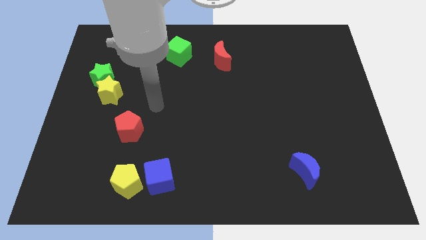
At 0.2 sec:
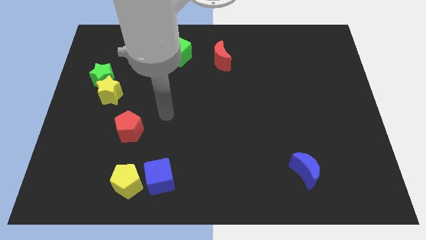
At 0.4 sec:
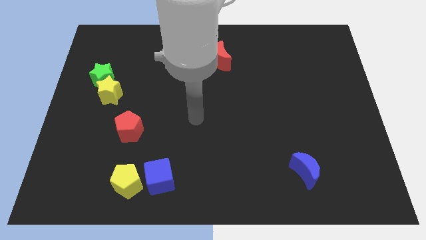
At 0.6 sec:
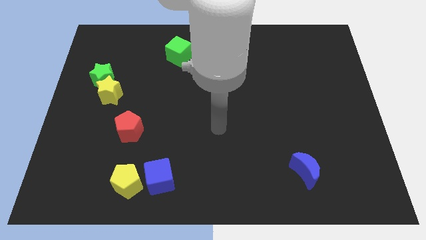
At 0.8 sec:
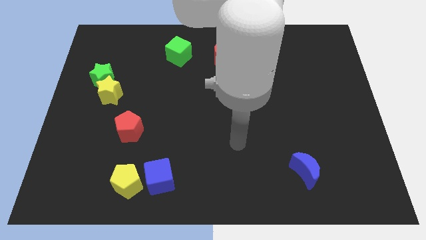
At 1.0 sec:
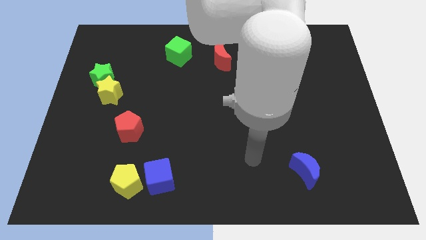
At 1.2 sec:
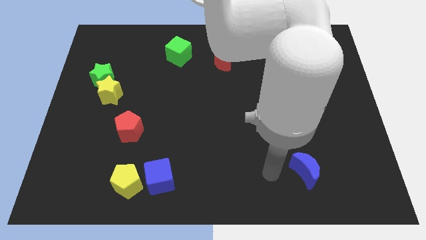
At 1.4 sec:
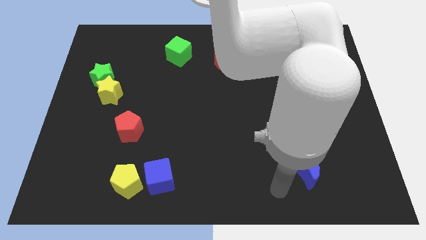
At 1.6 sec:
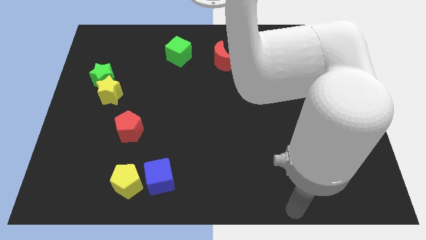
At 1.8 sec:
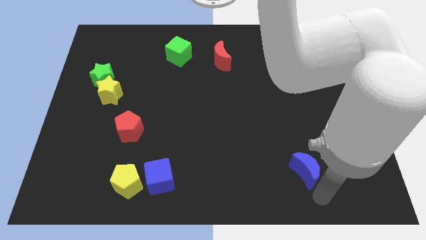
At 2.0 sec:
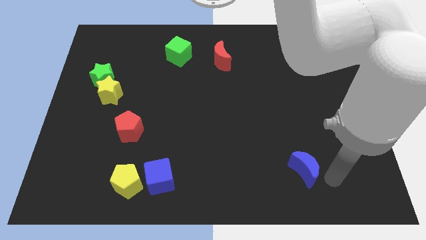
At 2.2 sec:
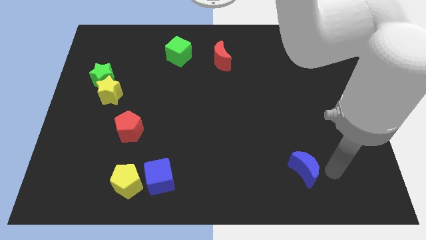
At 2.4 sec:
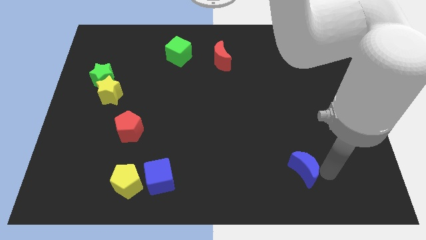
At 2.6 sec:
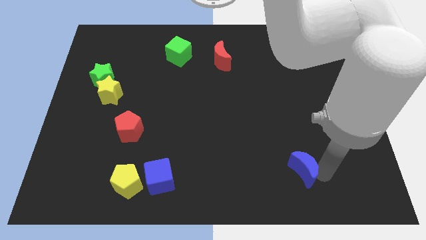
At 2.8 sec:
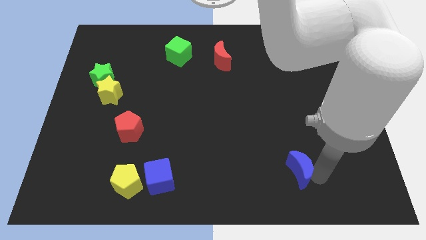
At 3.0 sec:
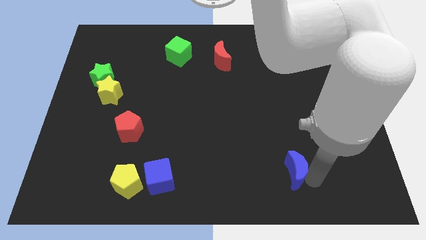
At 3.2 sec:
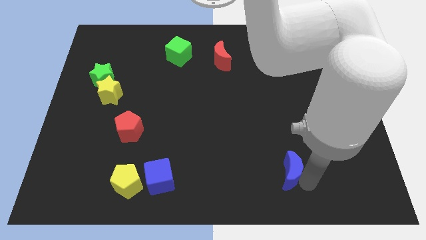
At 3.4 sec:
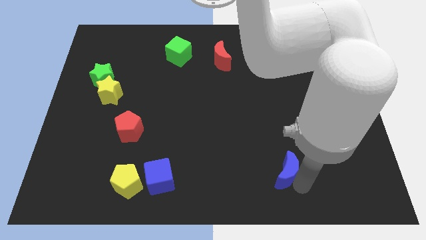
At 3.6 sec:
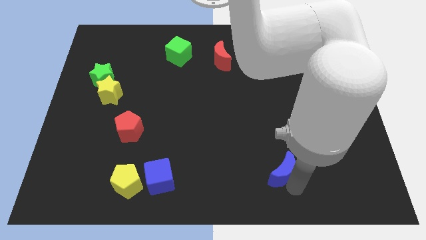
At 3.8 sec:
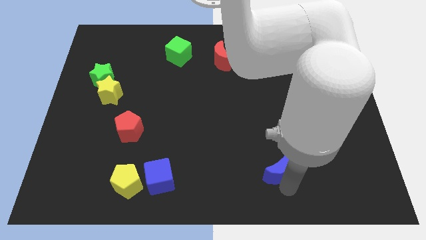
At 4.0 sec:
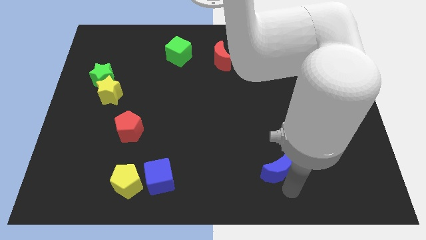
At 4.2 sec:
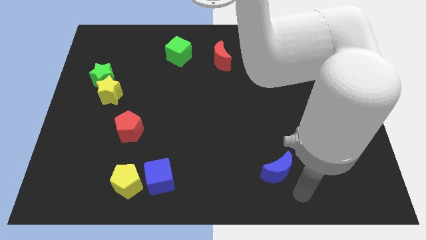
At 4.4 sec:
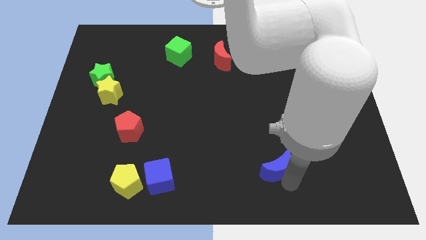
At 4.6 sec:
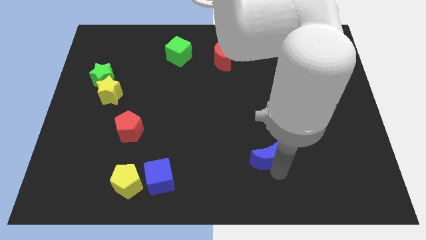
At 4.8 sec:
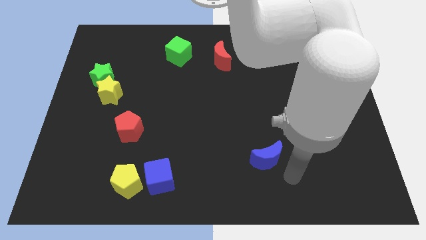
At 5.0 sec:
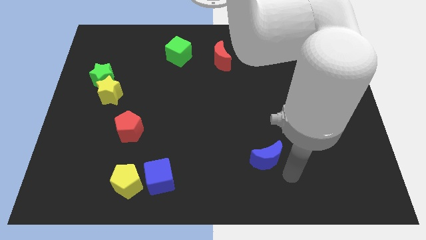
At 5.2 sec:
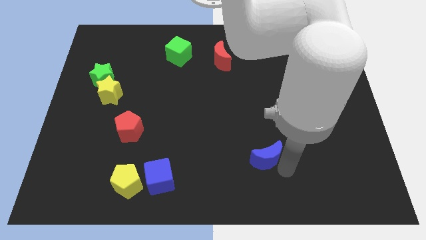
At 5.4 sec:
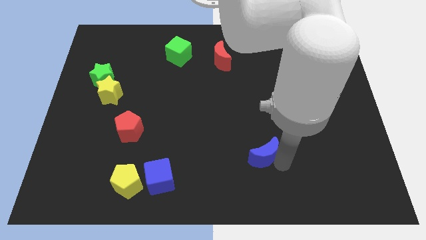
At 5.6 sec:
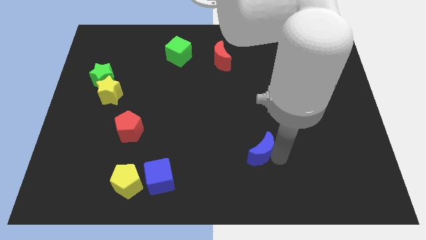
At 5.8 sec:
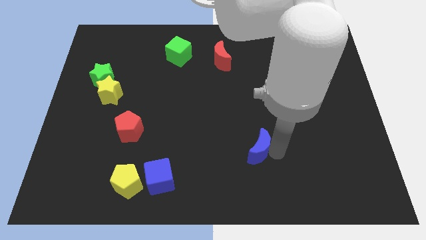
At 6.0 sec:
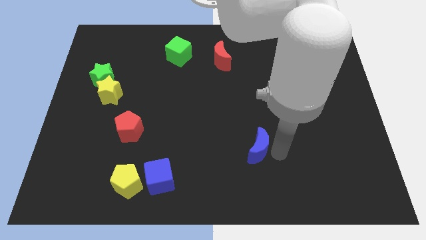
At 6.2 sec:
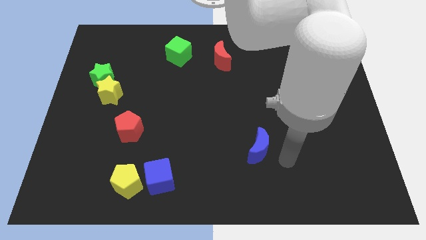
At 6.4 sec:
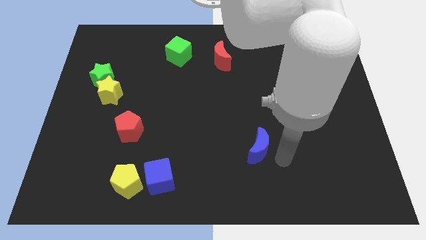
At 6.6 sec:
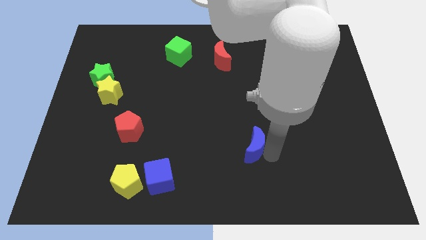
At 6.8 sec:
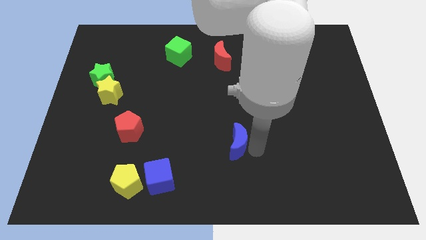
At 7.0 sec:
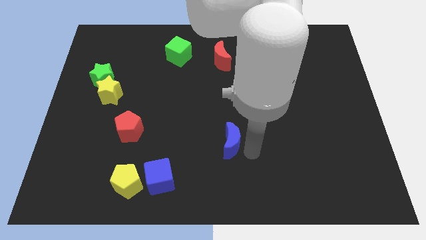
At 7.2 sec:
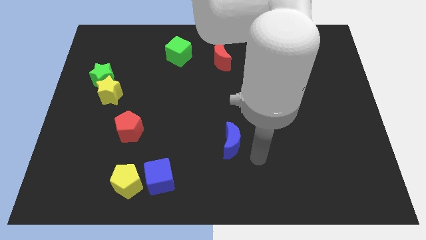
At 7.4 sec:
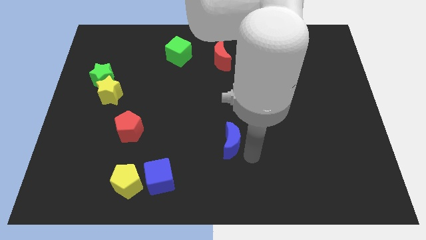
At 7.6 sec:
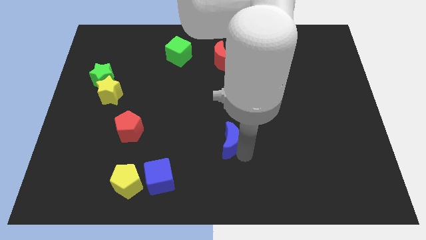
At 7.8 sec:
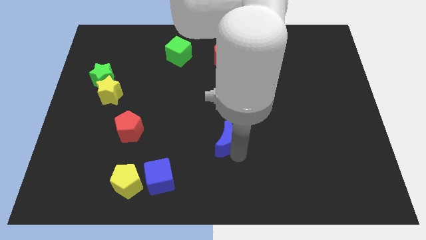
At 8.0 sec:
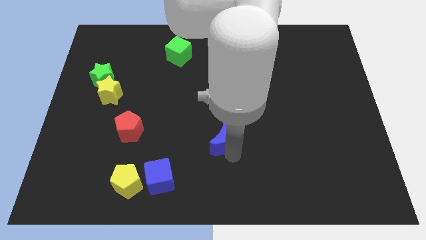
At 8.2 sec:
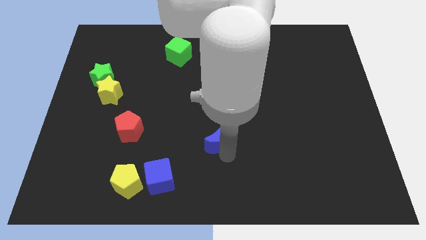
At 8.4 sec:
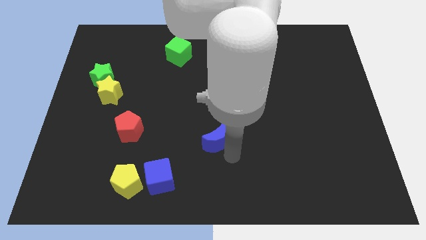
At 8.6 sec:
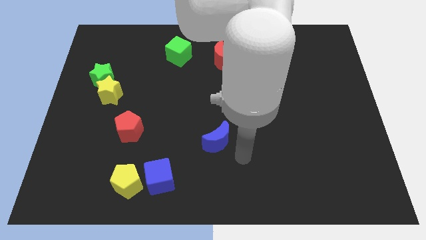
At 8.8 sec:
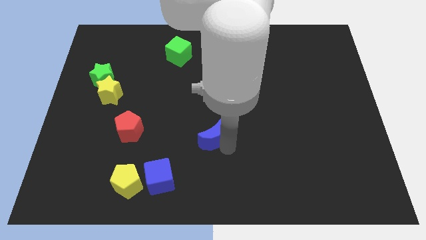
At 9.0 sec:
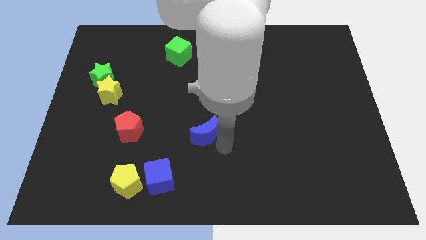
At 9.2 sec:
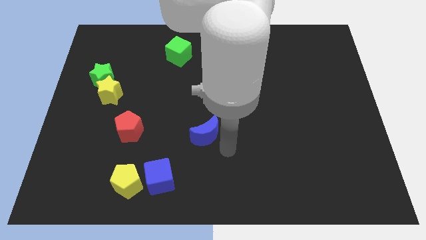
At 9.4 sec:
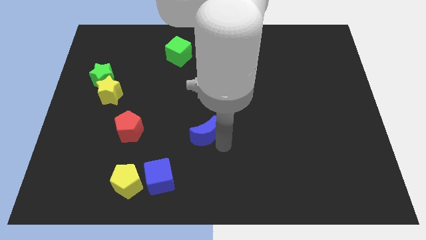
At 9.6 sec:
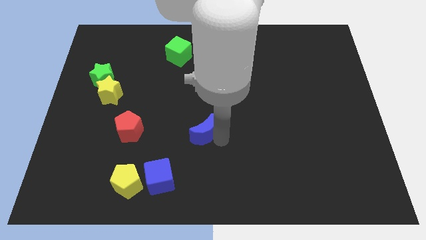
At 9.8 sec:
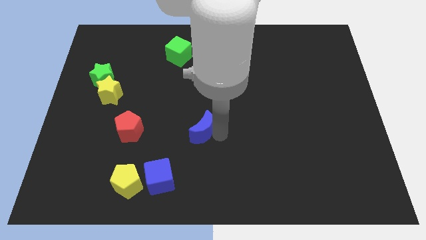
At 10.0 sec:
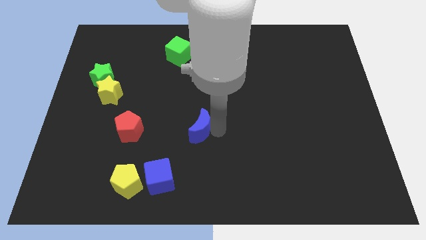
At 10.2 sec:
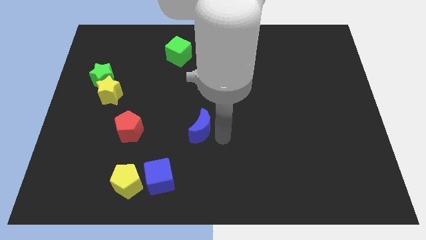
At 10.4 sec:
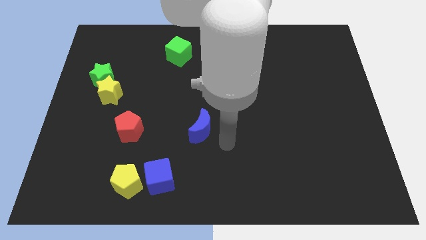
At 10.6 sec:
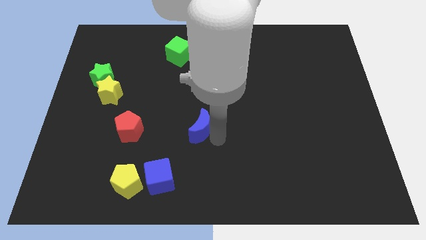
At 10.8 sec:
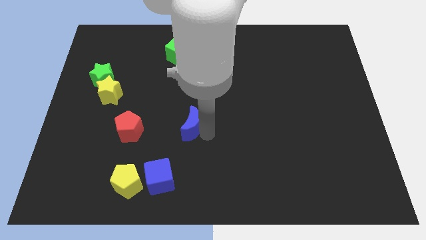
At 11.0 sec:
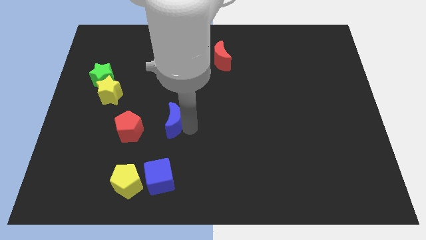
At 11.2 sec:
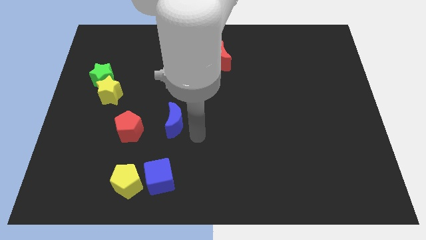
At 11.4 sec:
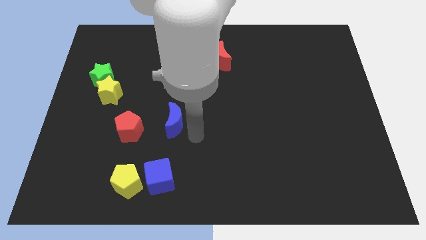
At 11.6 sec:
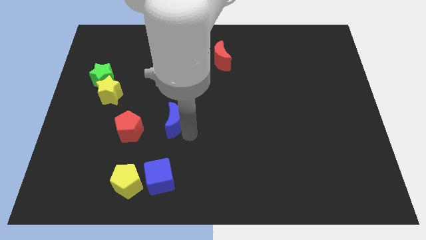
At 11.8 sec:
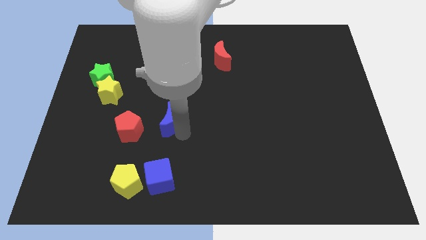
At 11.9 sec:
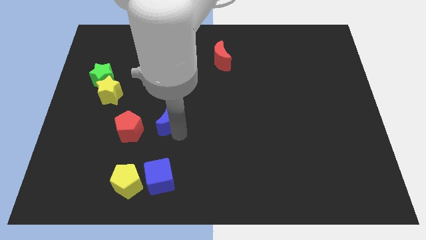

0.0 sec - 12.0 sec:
push the blue moon to the top right of the red pentagon

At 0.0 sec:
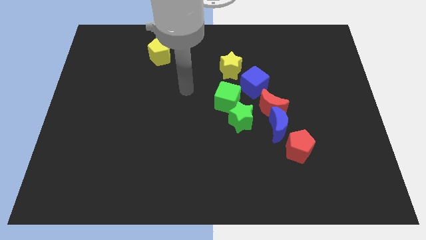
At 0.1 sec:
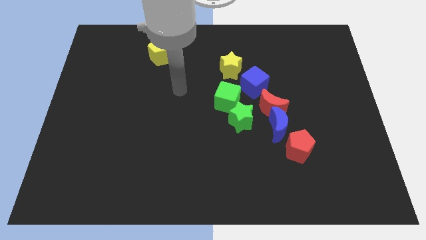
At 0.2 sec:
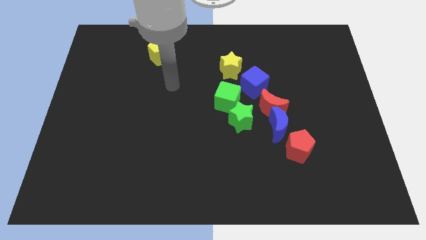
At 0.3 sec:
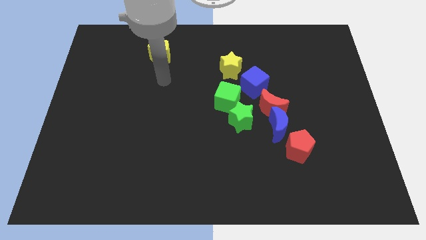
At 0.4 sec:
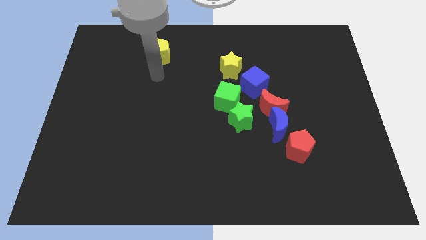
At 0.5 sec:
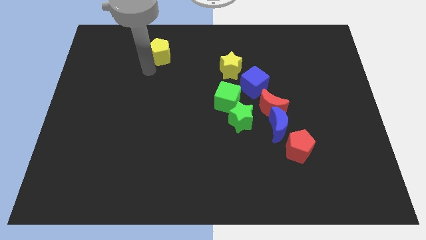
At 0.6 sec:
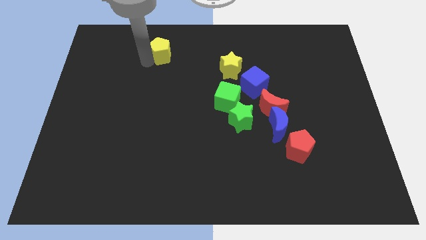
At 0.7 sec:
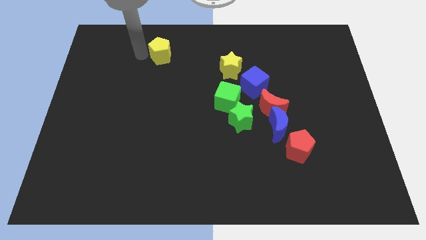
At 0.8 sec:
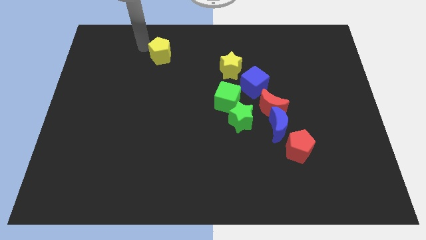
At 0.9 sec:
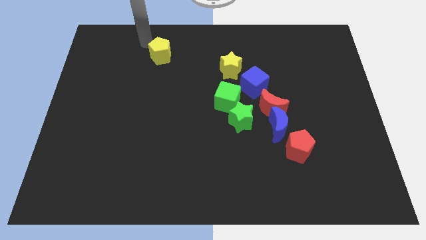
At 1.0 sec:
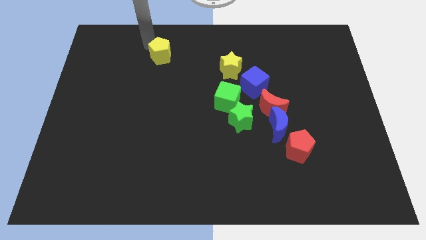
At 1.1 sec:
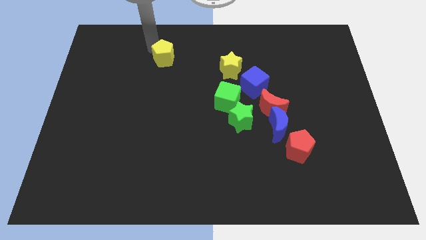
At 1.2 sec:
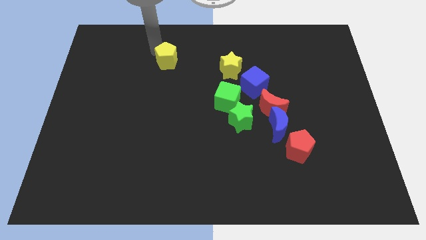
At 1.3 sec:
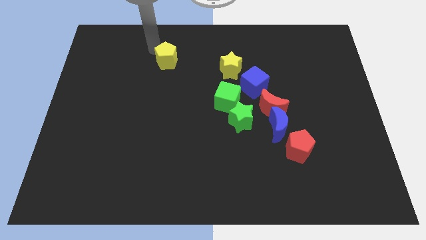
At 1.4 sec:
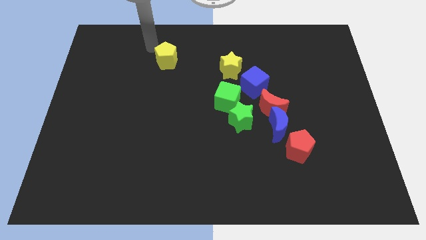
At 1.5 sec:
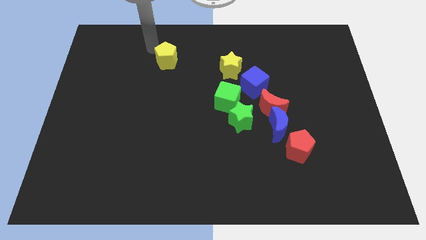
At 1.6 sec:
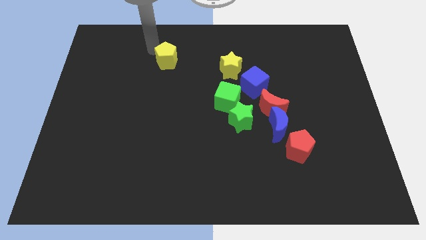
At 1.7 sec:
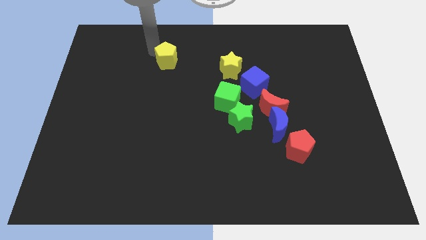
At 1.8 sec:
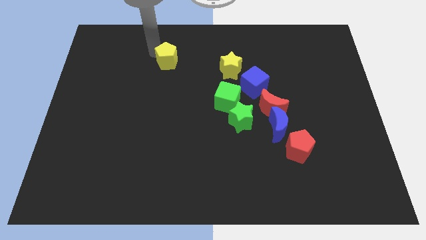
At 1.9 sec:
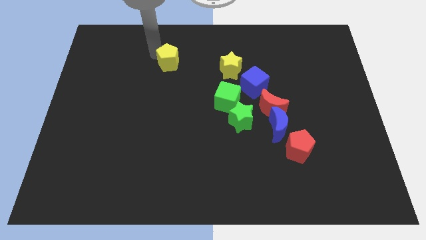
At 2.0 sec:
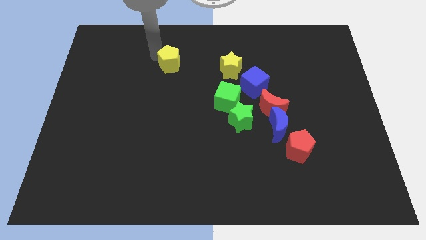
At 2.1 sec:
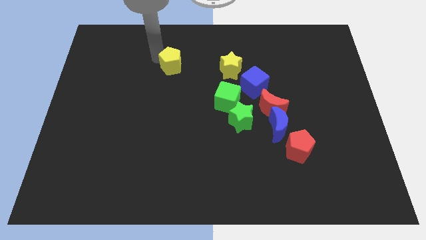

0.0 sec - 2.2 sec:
slide the yellow pentagon to the left of the yellow star
